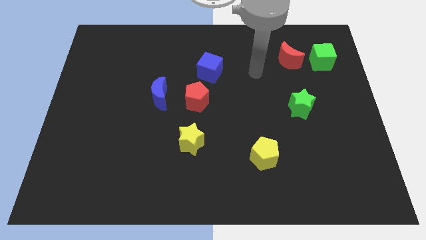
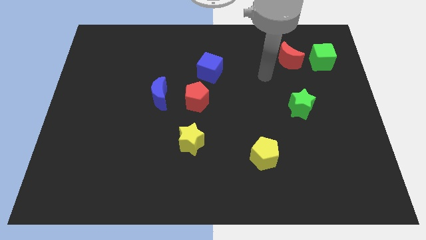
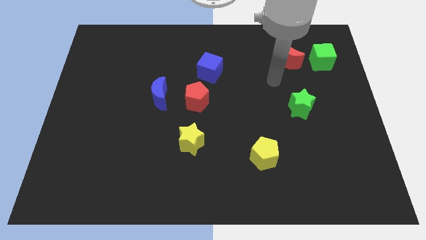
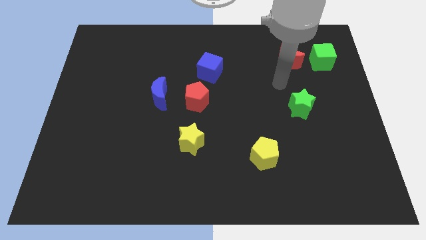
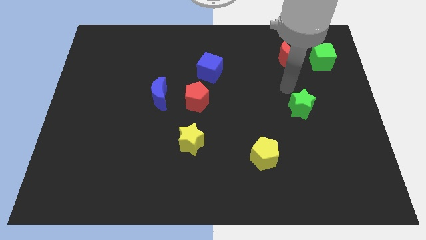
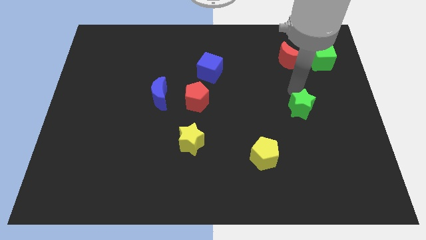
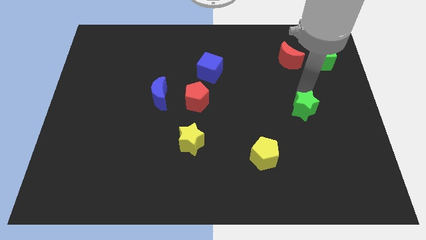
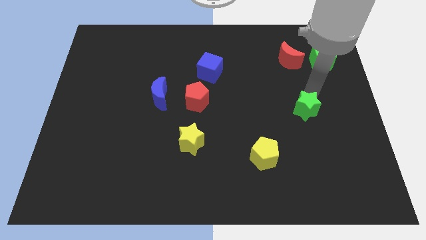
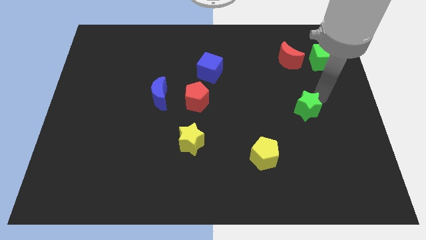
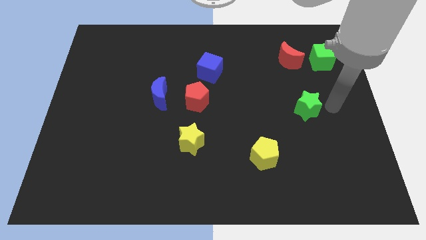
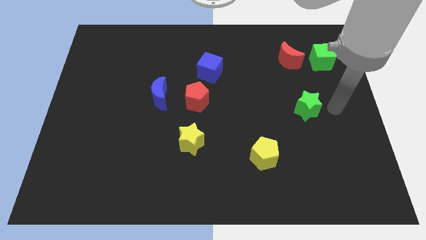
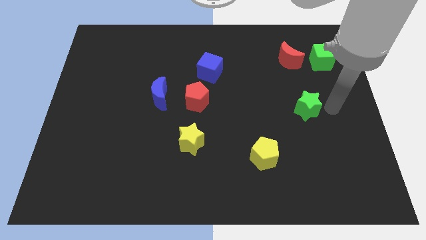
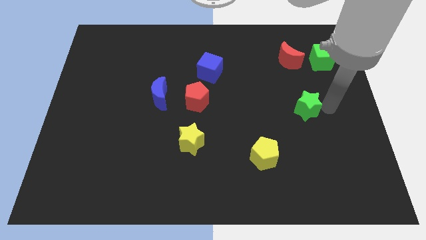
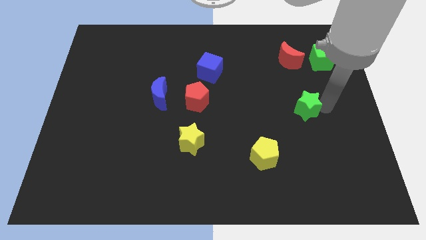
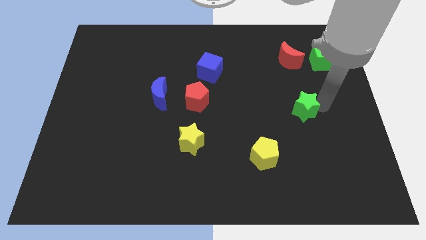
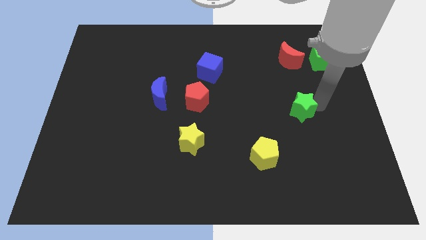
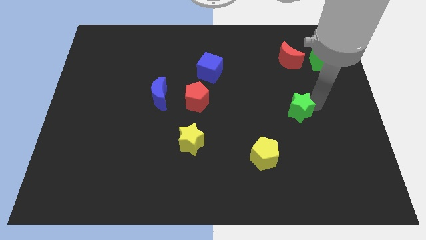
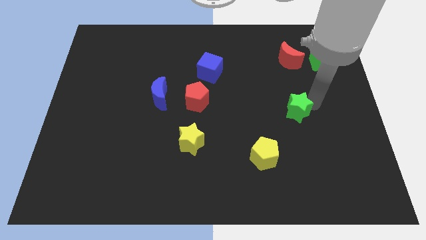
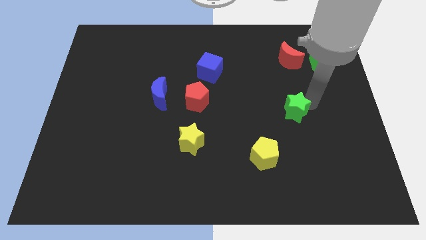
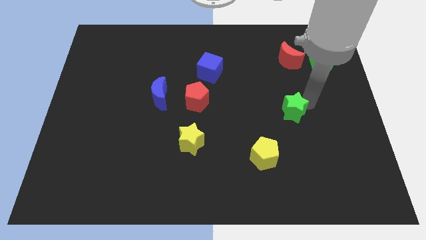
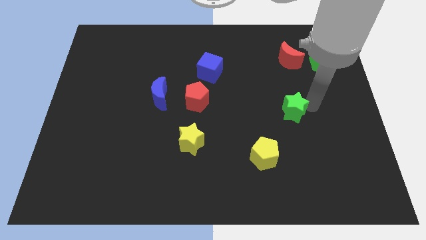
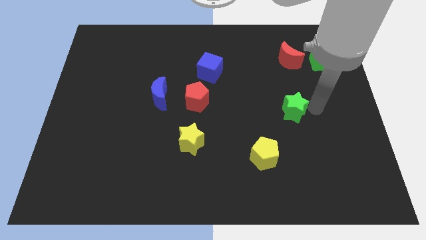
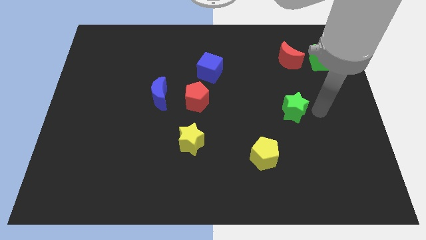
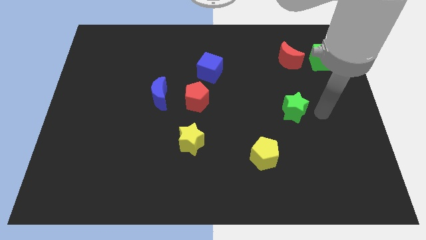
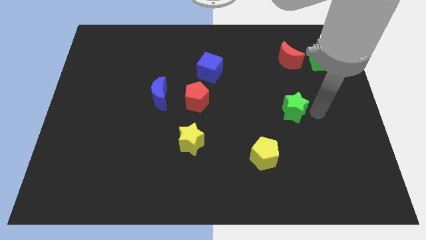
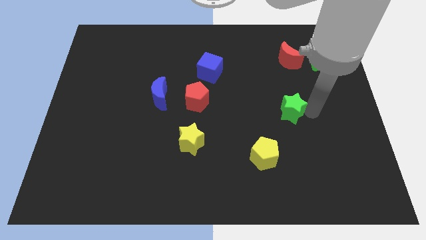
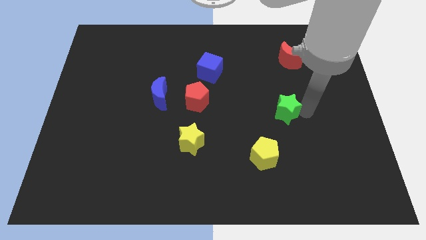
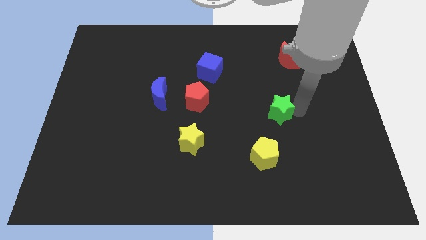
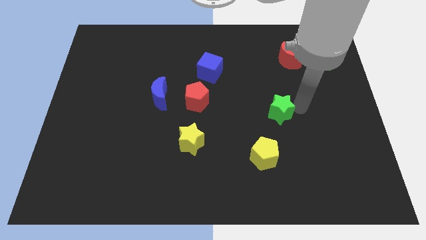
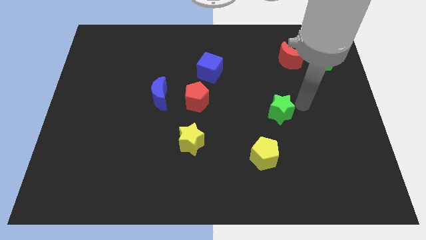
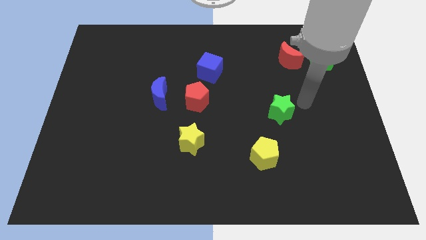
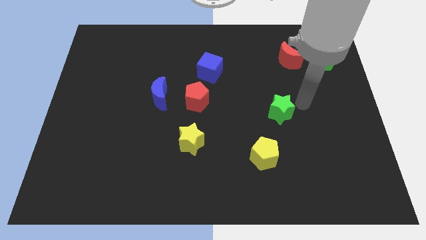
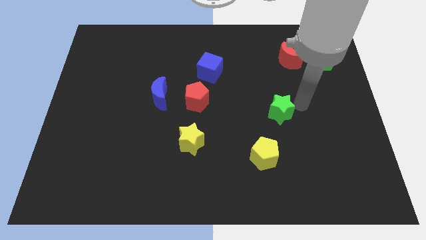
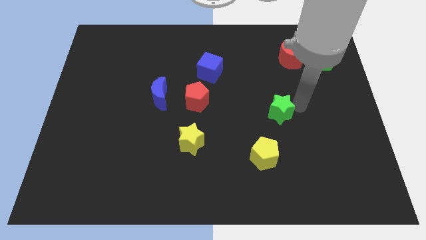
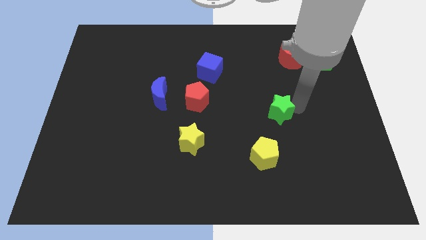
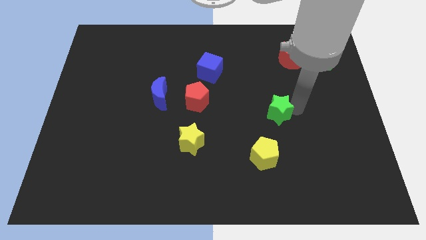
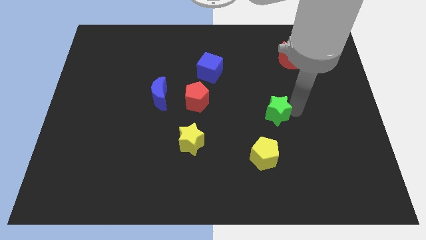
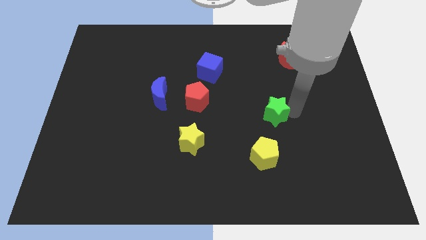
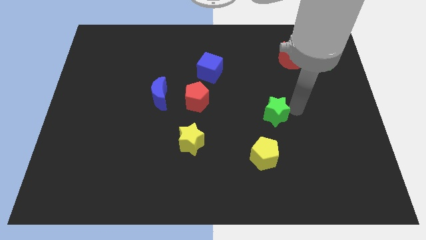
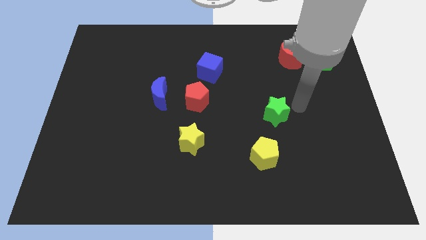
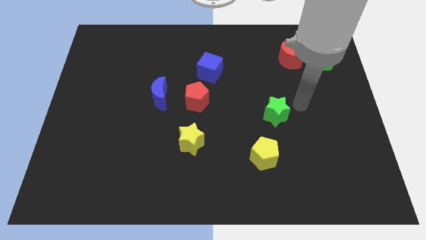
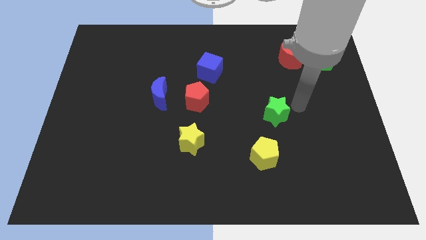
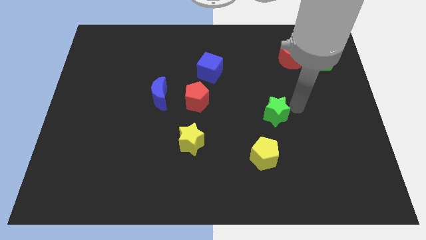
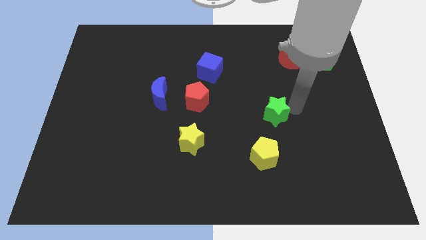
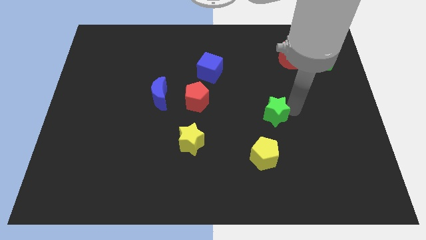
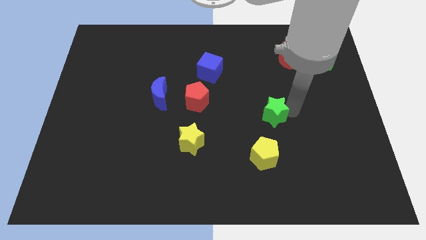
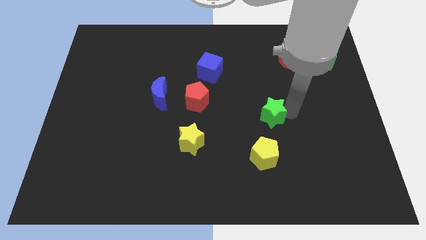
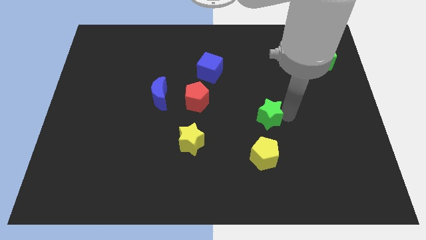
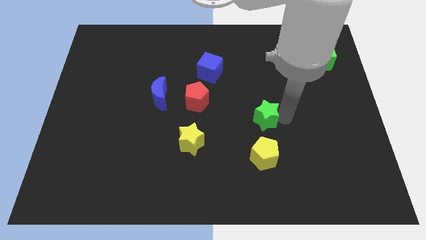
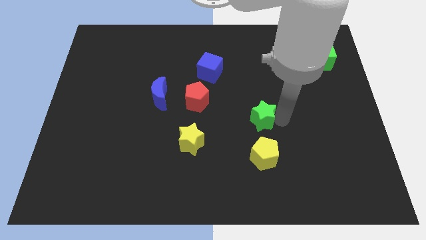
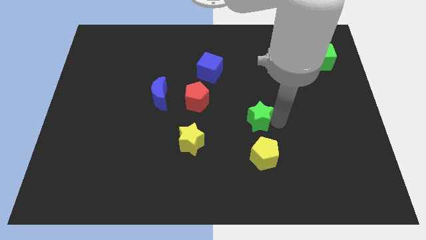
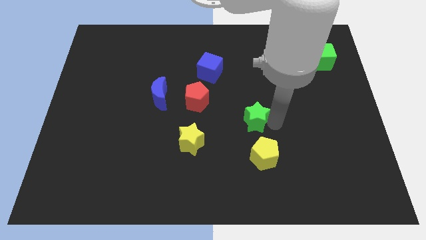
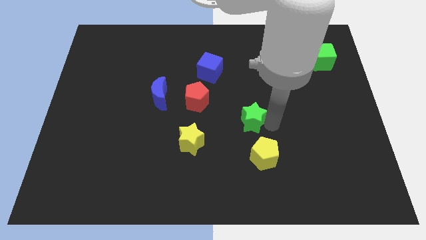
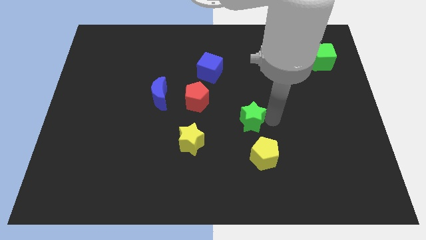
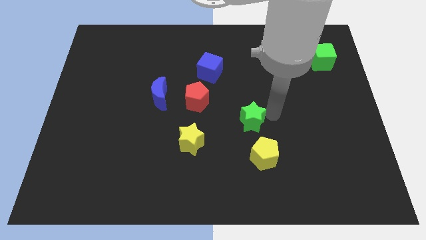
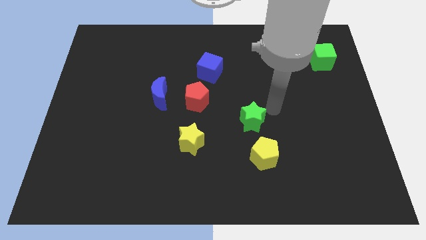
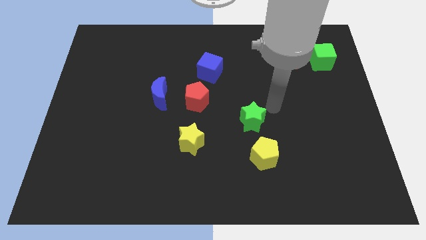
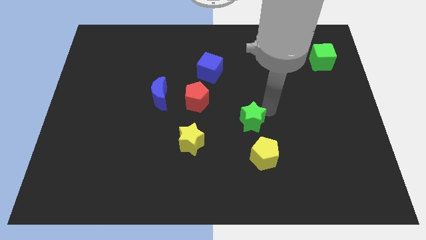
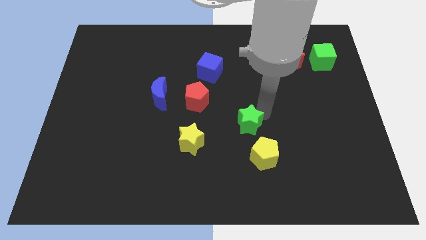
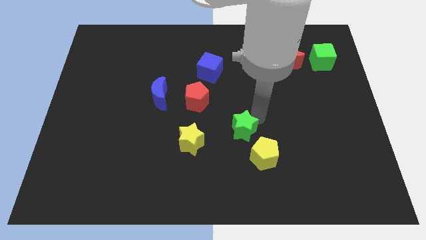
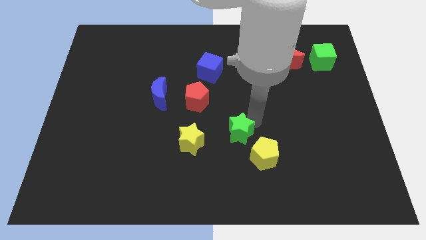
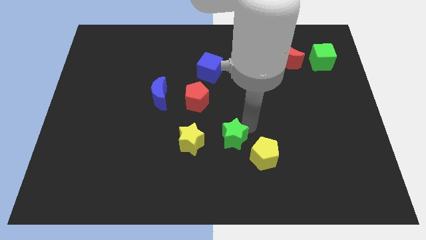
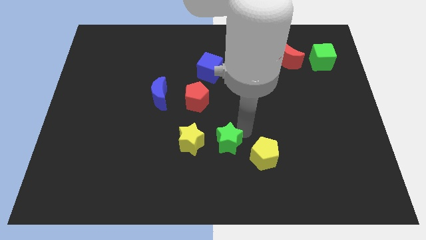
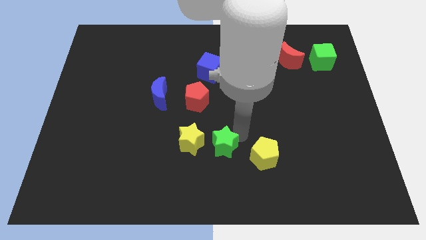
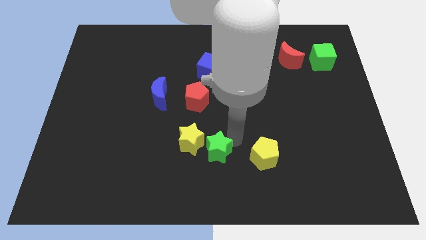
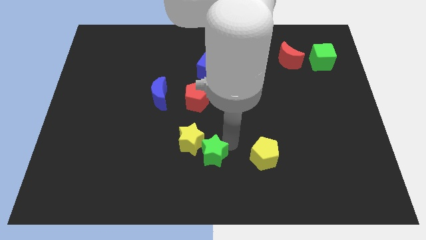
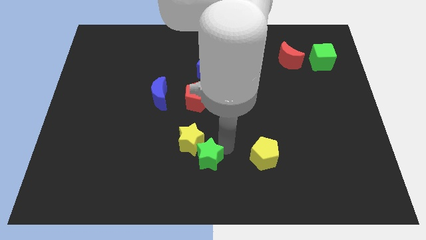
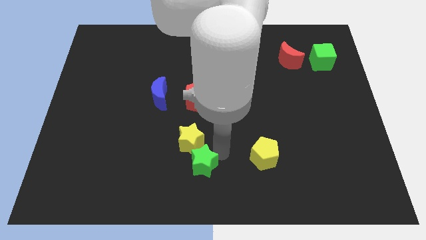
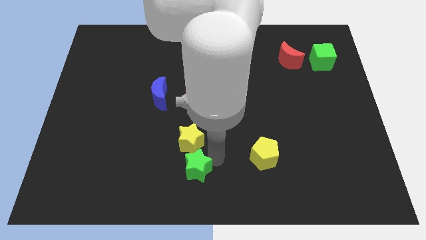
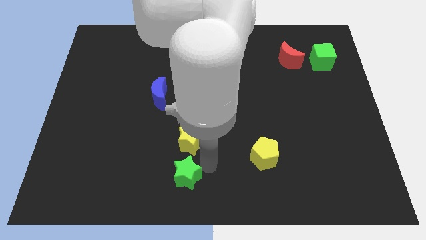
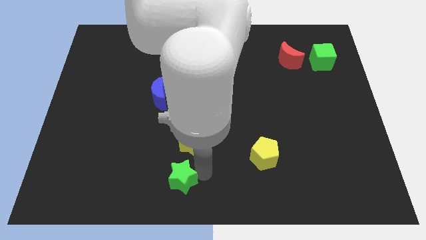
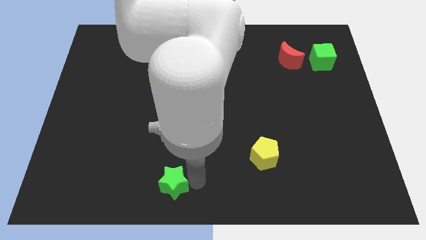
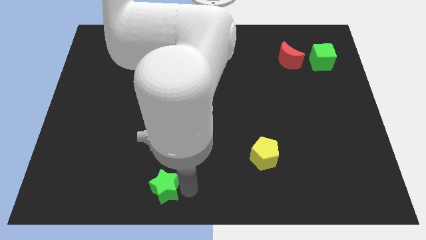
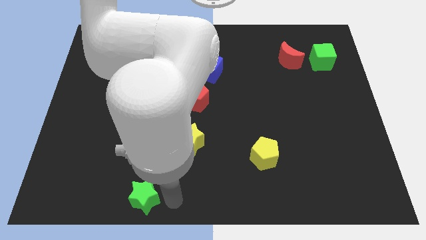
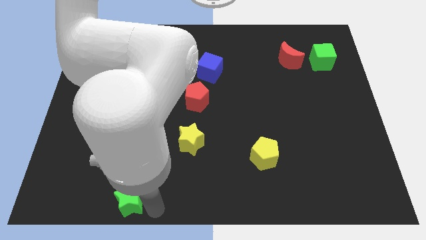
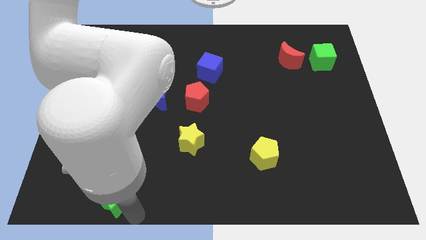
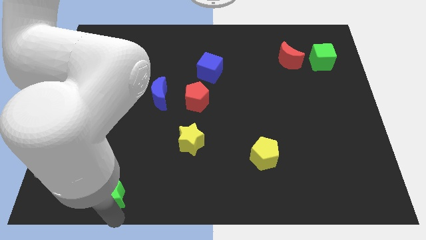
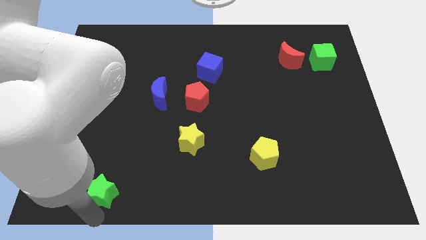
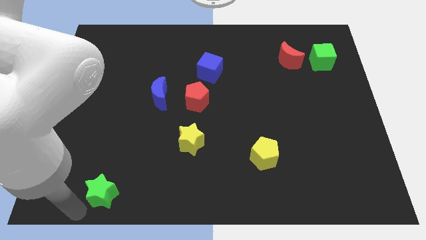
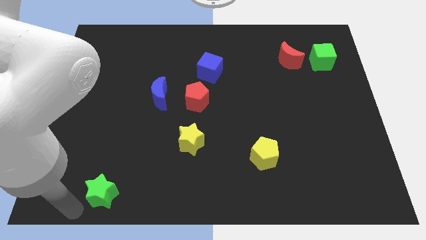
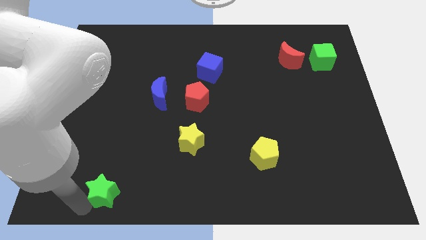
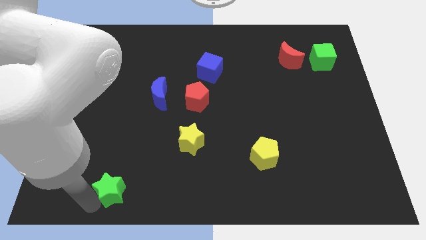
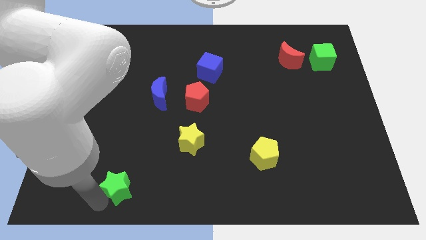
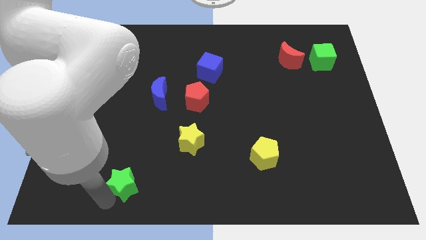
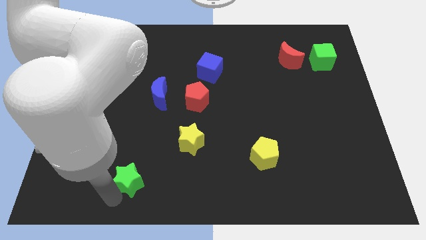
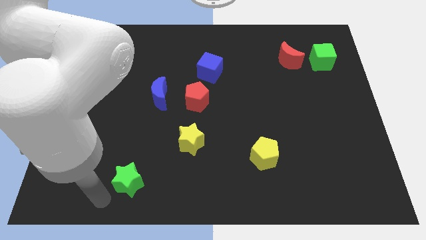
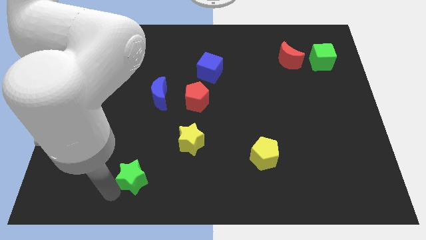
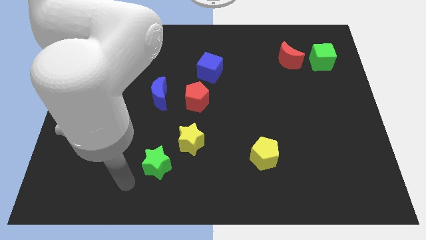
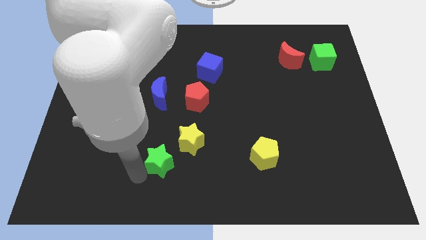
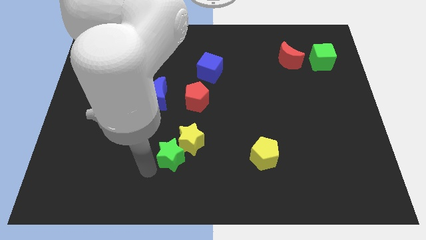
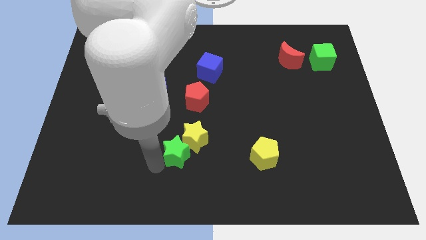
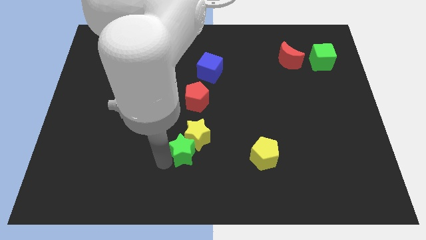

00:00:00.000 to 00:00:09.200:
put the green star below the red pentagon
